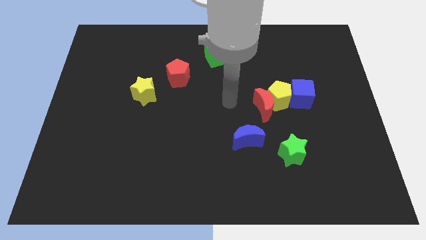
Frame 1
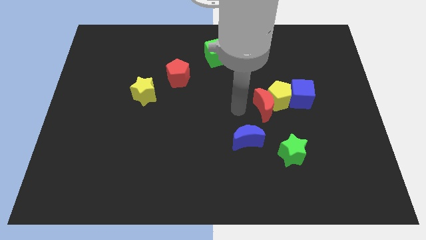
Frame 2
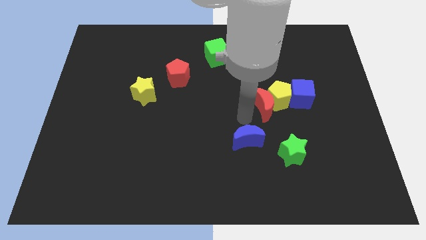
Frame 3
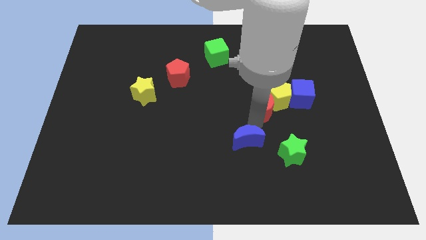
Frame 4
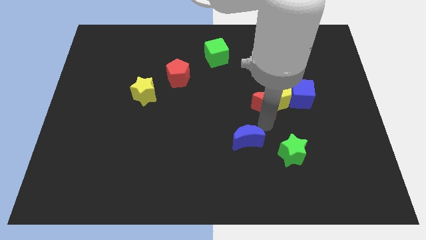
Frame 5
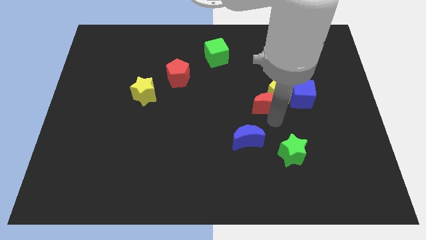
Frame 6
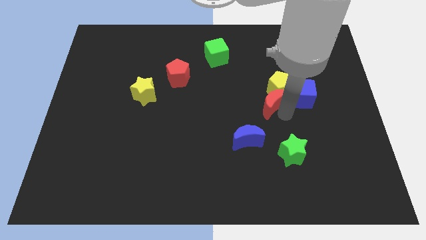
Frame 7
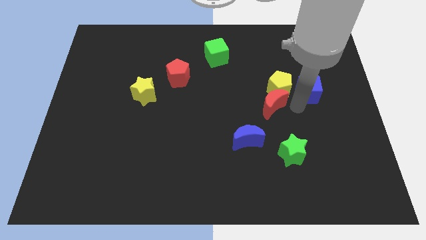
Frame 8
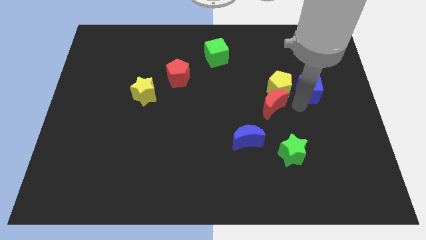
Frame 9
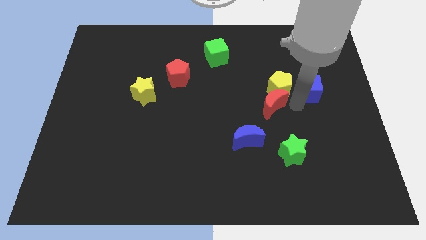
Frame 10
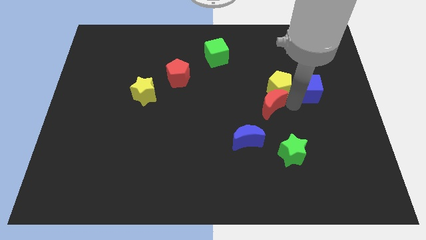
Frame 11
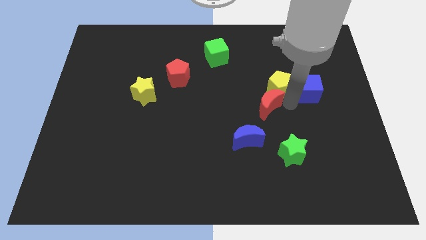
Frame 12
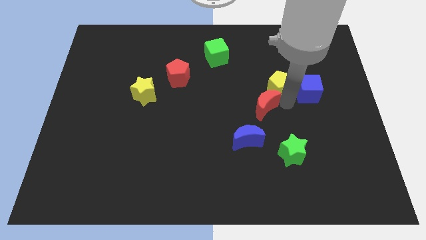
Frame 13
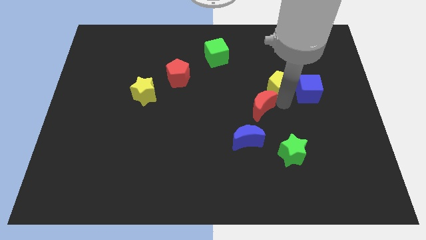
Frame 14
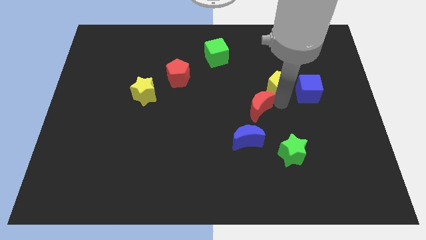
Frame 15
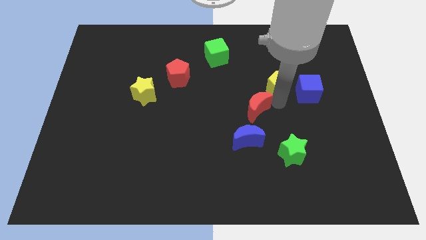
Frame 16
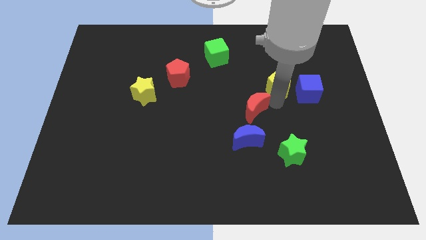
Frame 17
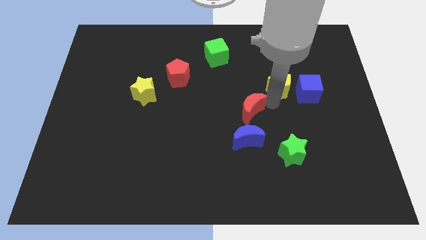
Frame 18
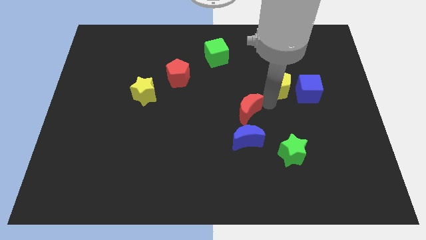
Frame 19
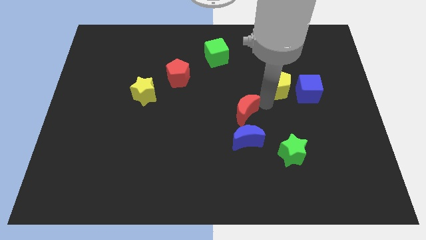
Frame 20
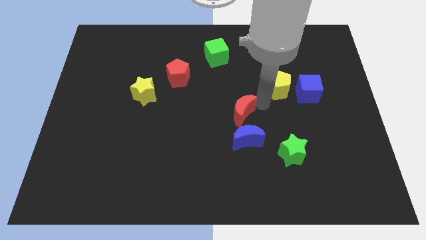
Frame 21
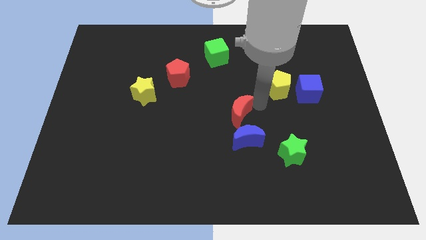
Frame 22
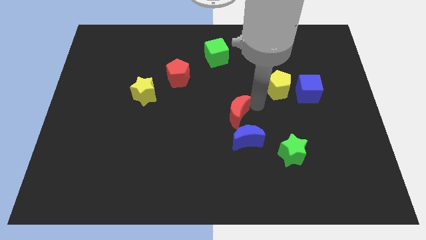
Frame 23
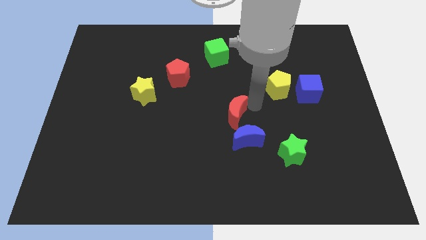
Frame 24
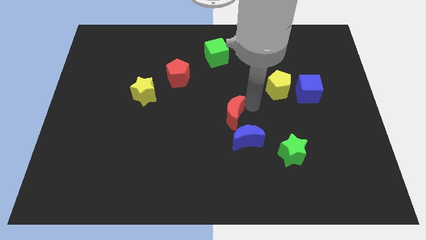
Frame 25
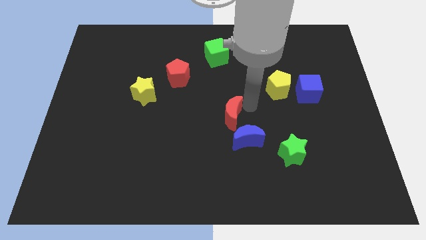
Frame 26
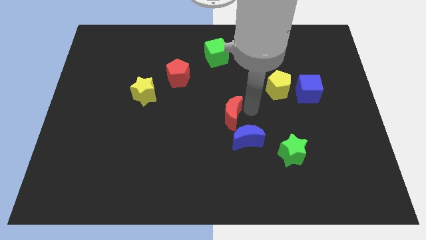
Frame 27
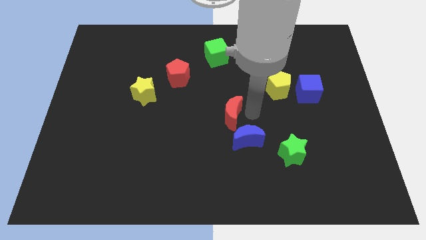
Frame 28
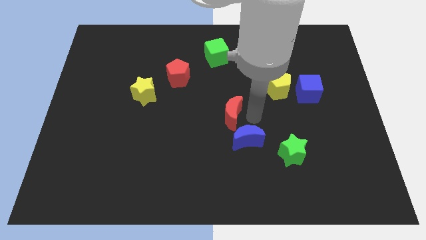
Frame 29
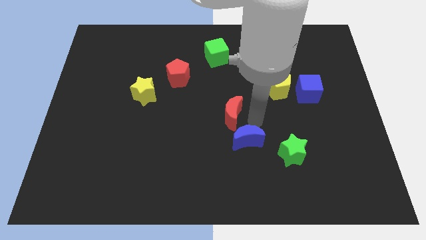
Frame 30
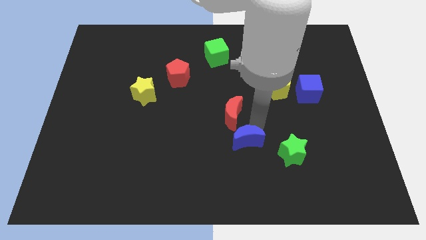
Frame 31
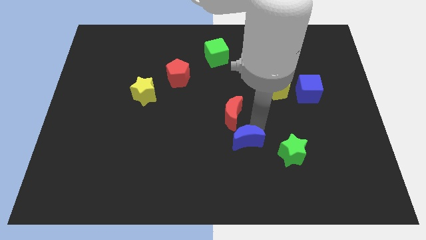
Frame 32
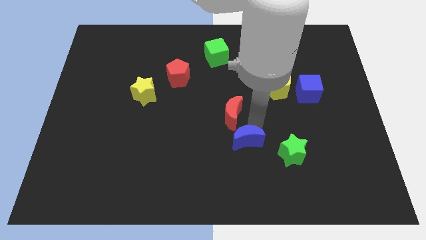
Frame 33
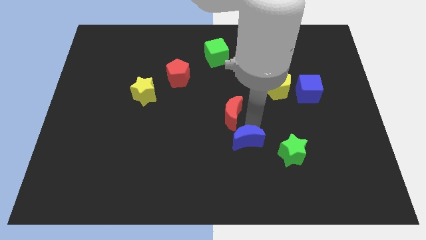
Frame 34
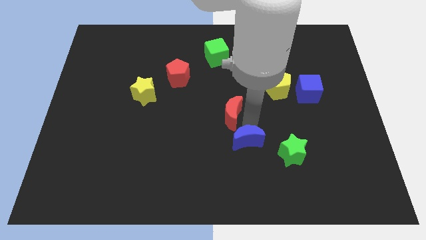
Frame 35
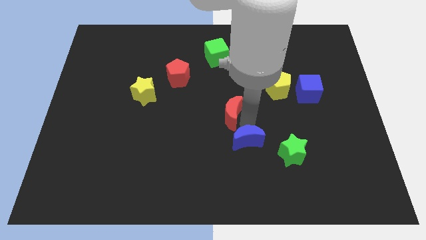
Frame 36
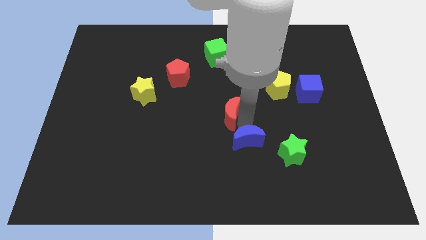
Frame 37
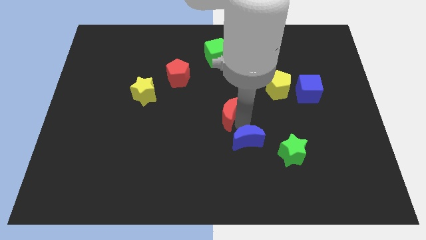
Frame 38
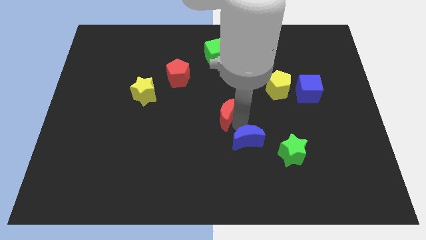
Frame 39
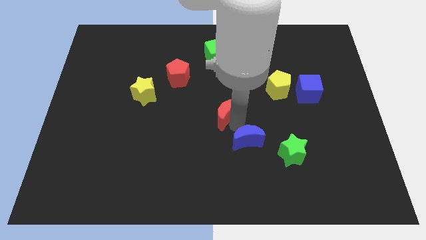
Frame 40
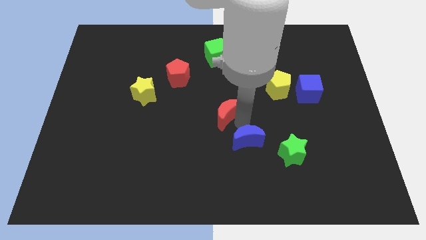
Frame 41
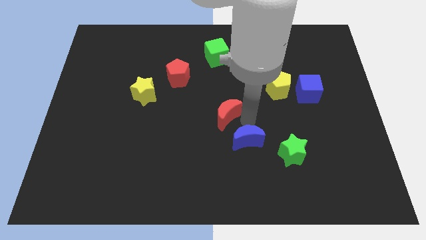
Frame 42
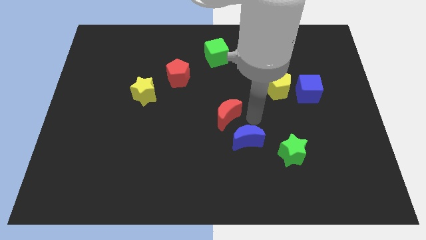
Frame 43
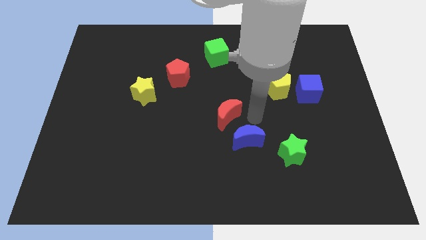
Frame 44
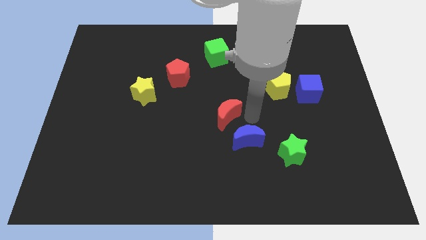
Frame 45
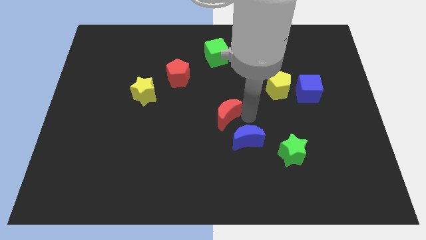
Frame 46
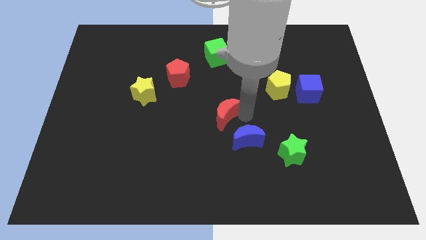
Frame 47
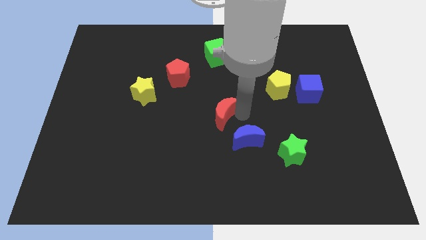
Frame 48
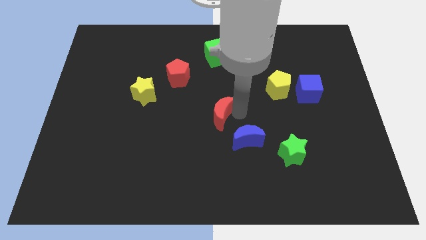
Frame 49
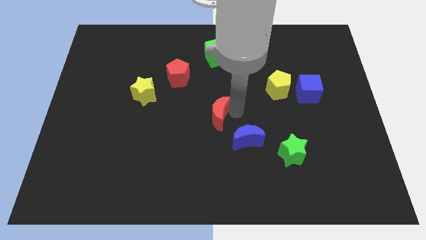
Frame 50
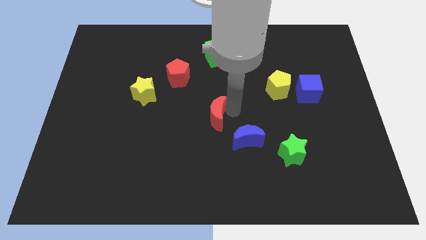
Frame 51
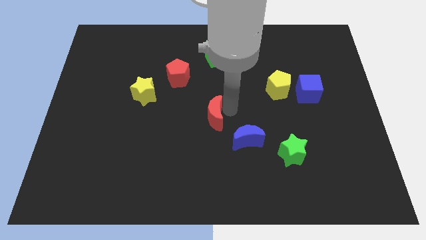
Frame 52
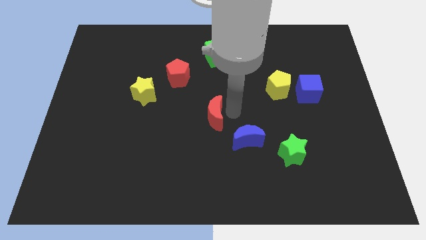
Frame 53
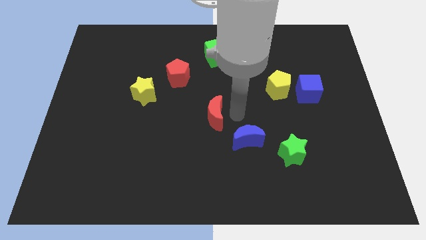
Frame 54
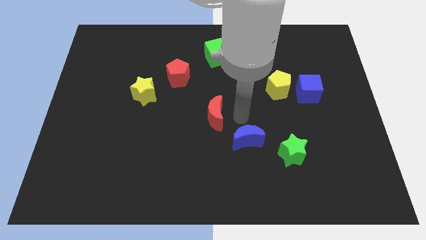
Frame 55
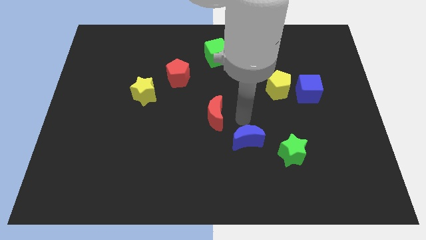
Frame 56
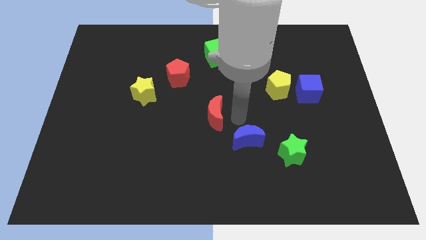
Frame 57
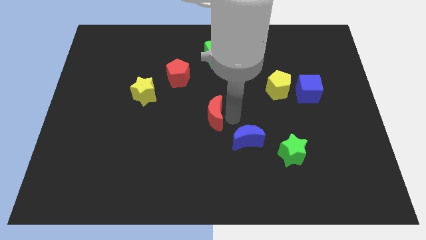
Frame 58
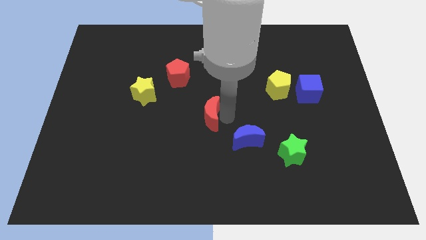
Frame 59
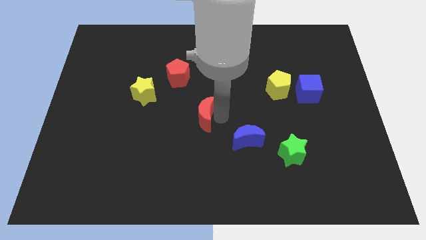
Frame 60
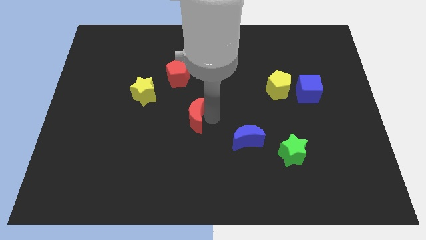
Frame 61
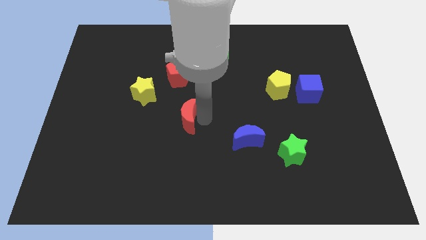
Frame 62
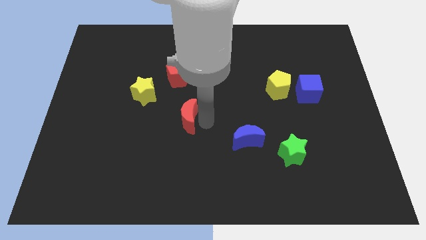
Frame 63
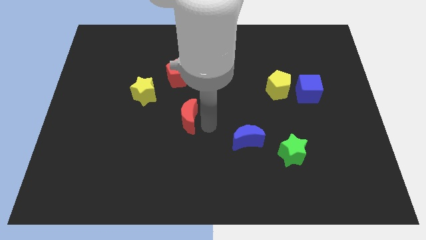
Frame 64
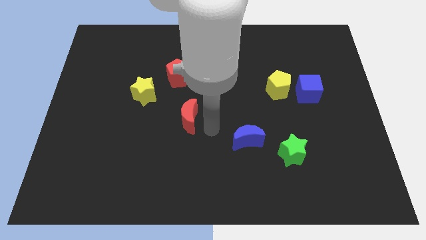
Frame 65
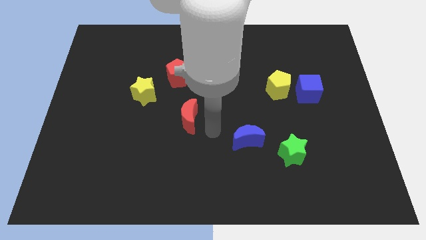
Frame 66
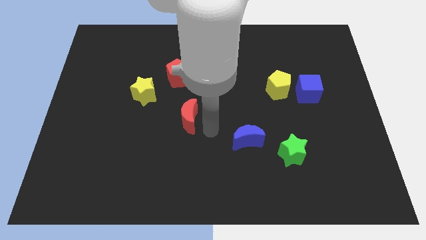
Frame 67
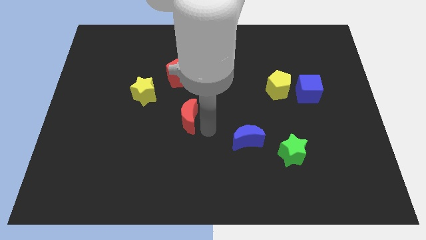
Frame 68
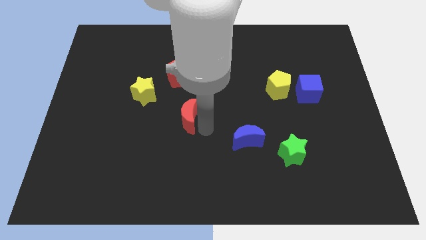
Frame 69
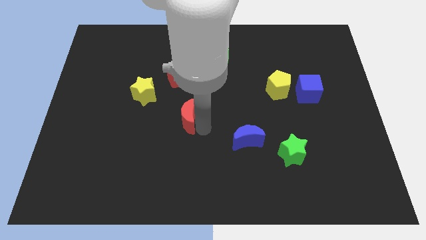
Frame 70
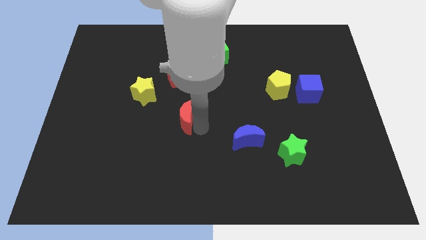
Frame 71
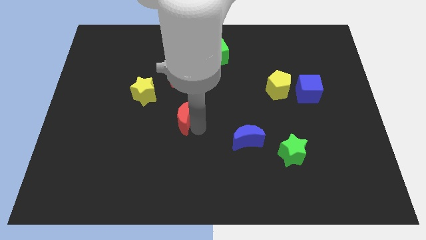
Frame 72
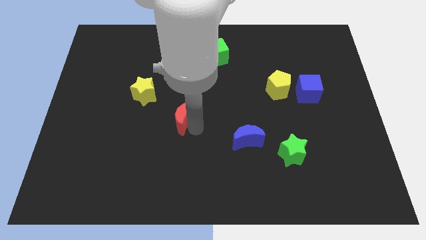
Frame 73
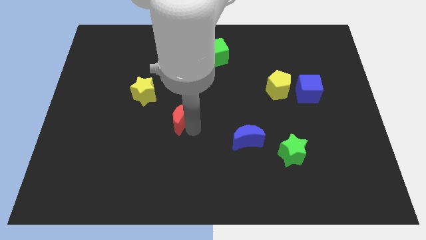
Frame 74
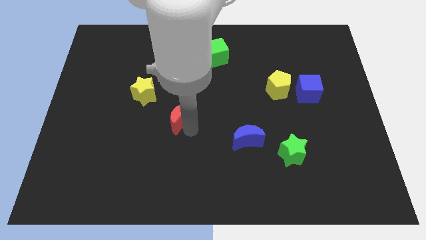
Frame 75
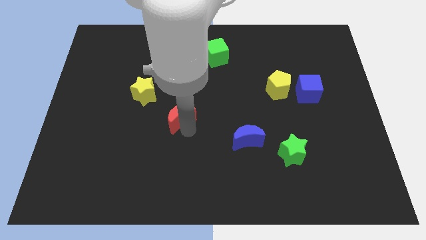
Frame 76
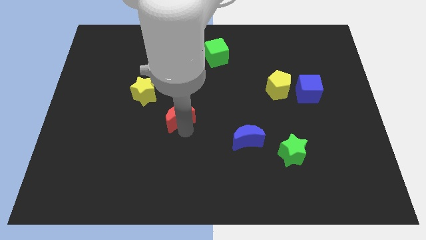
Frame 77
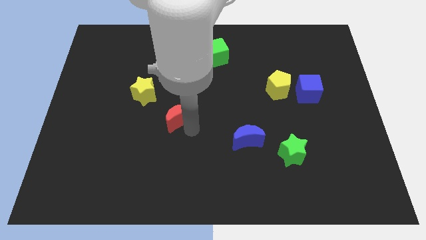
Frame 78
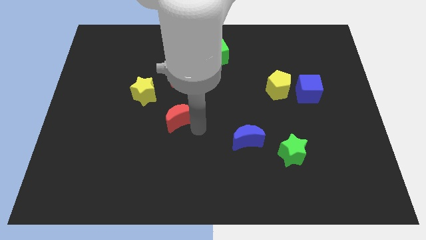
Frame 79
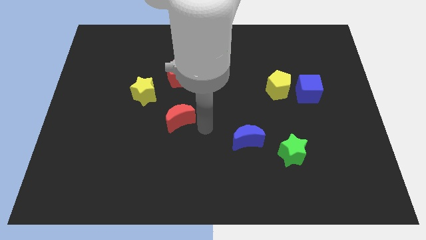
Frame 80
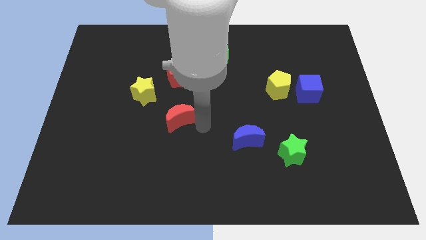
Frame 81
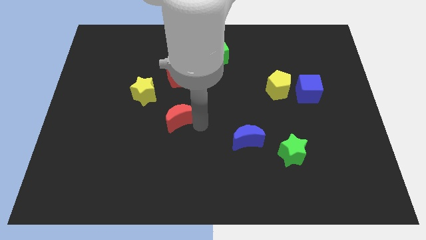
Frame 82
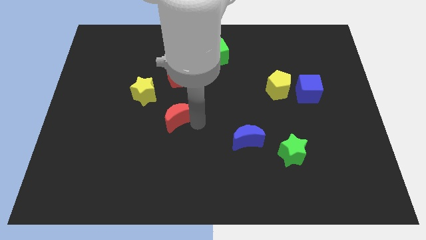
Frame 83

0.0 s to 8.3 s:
slide the red moon left
